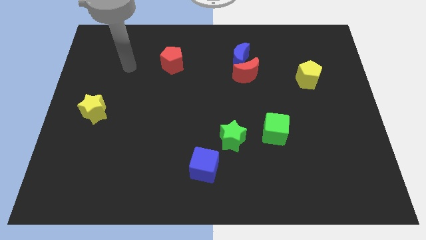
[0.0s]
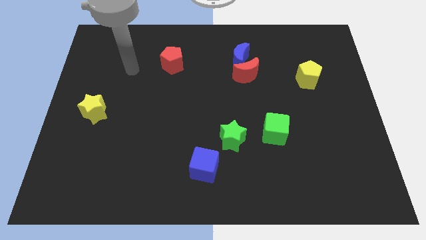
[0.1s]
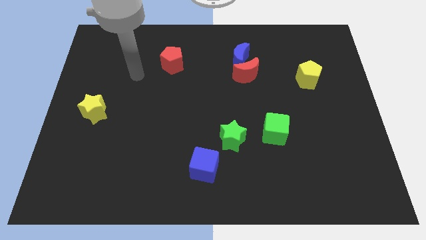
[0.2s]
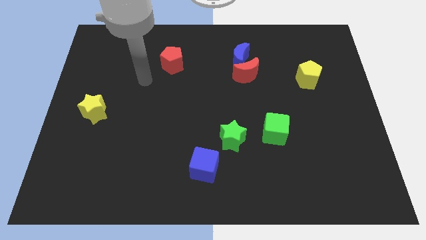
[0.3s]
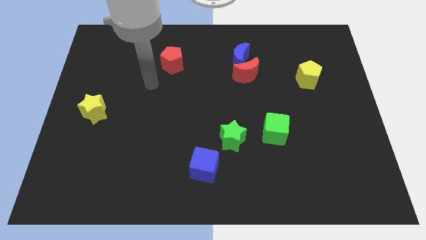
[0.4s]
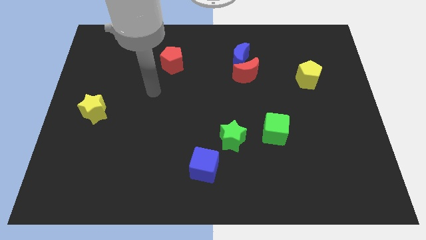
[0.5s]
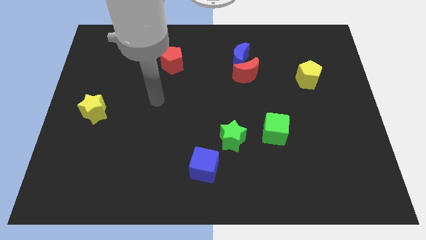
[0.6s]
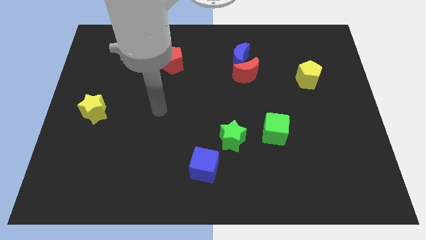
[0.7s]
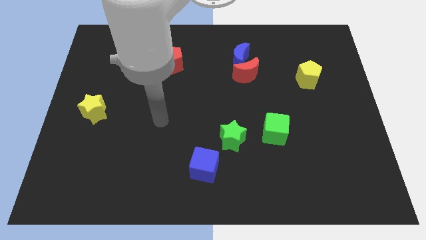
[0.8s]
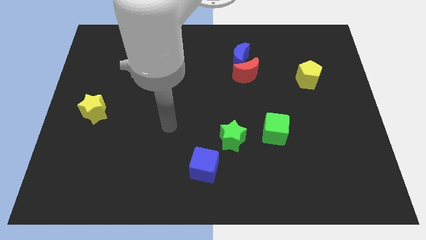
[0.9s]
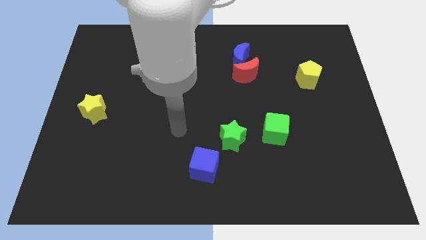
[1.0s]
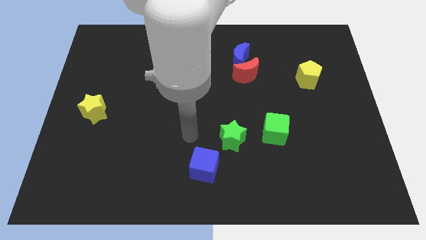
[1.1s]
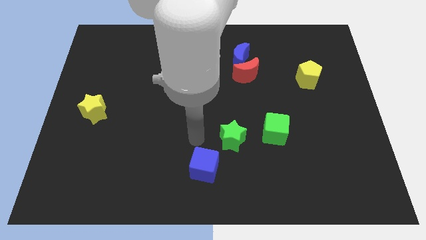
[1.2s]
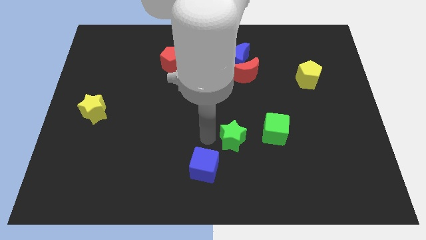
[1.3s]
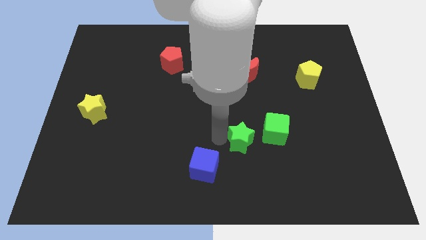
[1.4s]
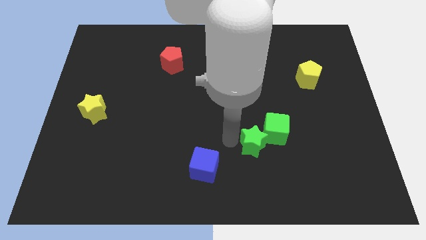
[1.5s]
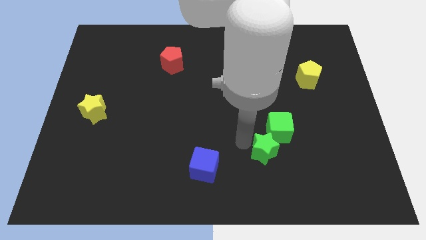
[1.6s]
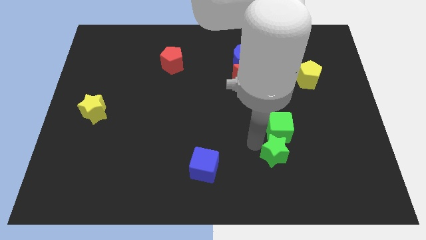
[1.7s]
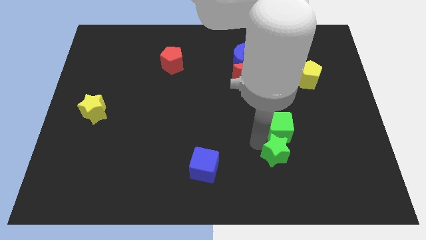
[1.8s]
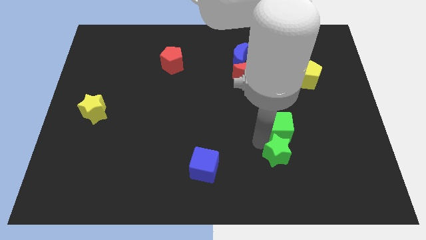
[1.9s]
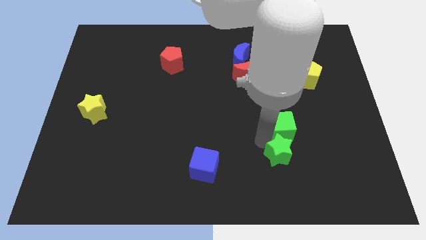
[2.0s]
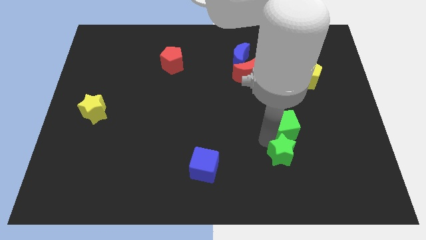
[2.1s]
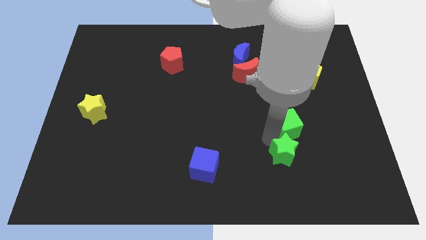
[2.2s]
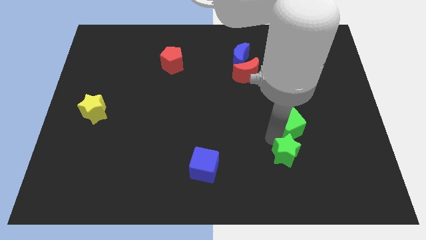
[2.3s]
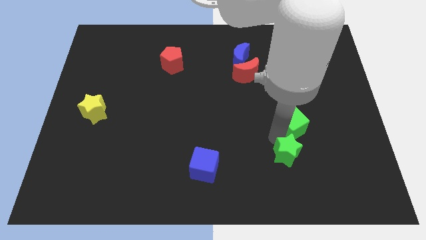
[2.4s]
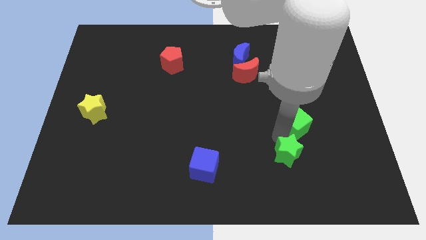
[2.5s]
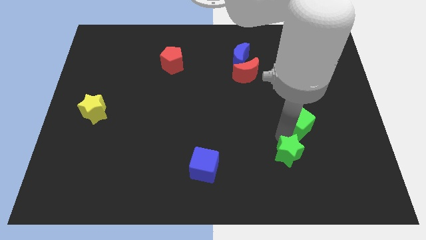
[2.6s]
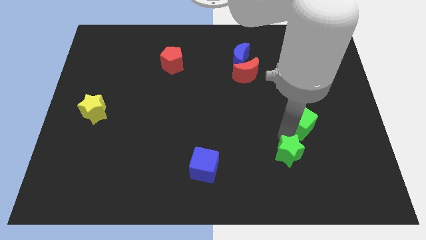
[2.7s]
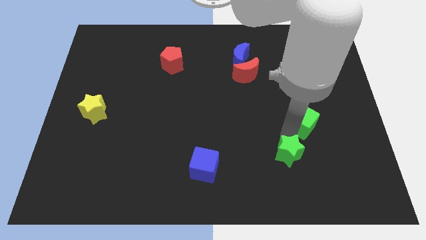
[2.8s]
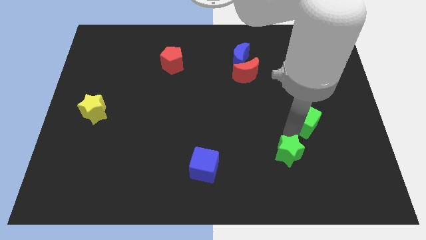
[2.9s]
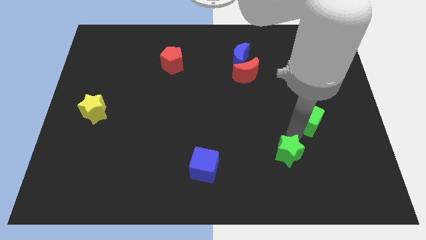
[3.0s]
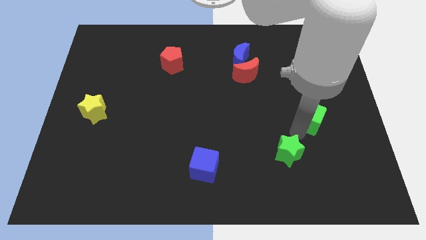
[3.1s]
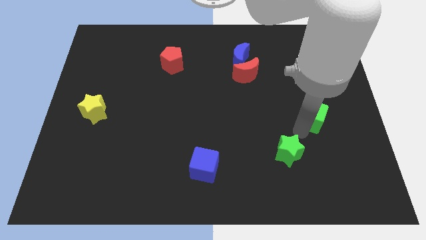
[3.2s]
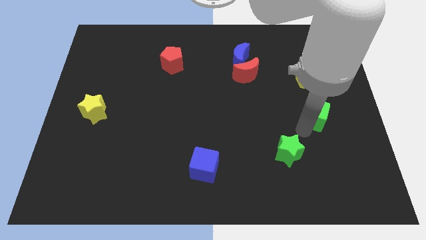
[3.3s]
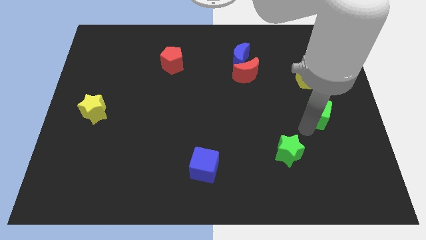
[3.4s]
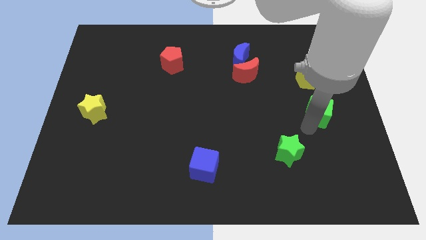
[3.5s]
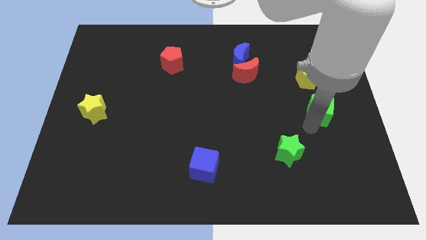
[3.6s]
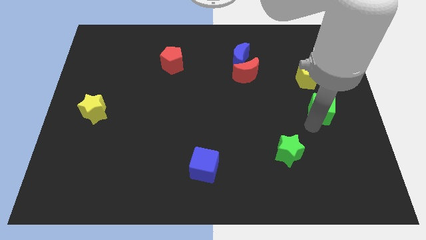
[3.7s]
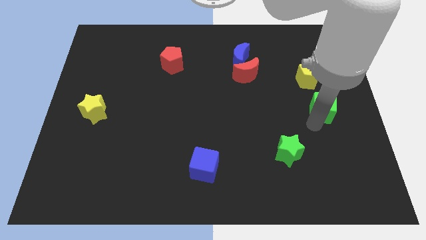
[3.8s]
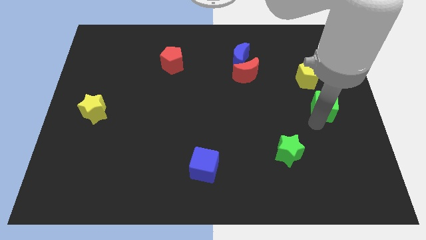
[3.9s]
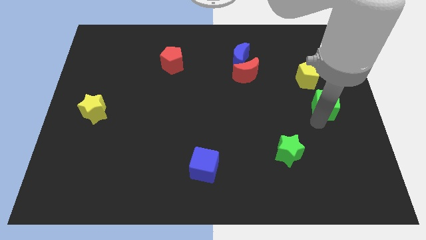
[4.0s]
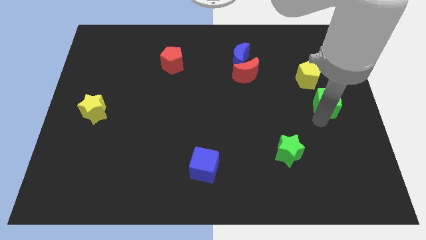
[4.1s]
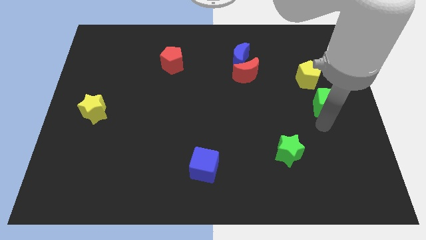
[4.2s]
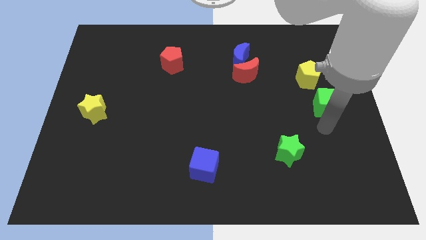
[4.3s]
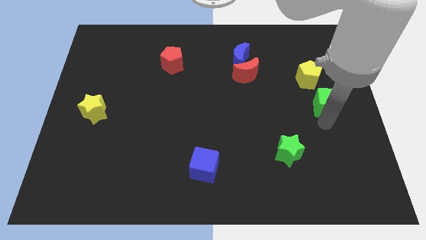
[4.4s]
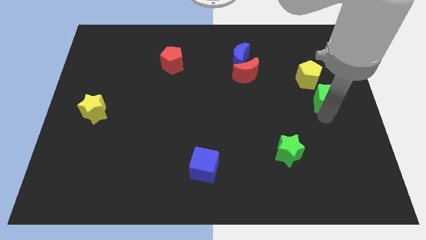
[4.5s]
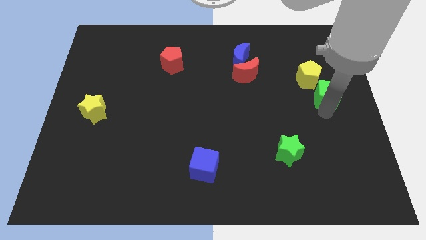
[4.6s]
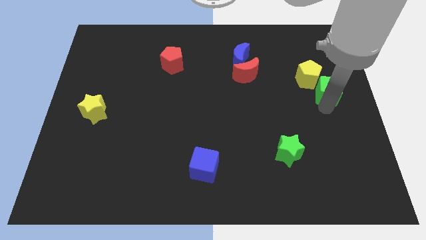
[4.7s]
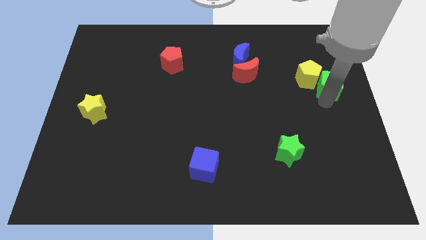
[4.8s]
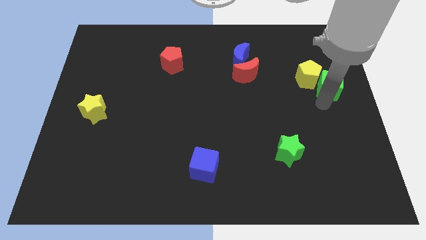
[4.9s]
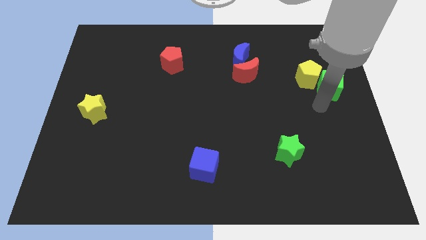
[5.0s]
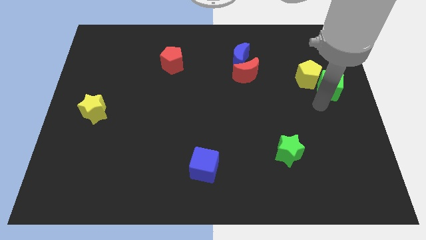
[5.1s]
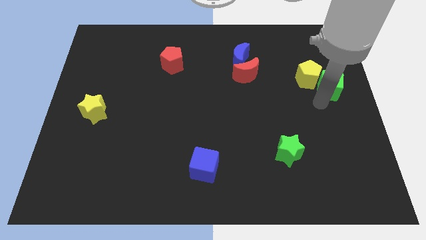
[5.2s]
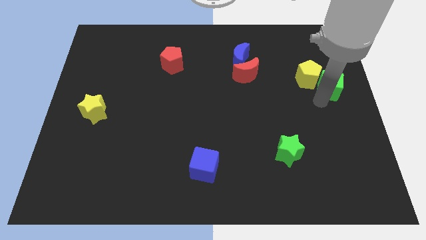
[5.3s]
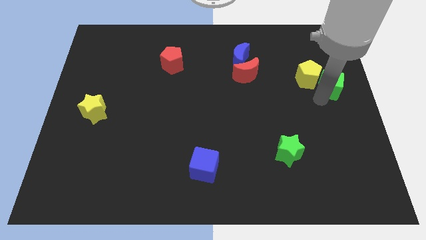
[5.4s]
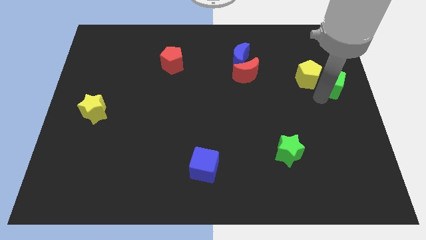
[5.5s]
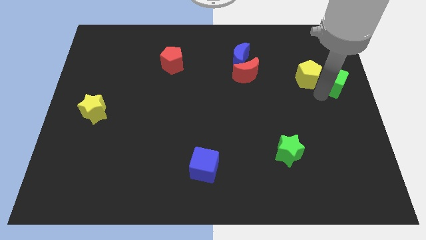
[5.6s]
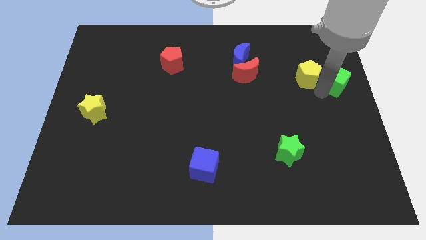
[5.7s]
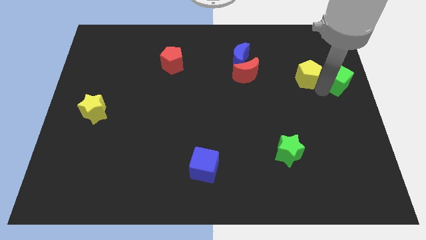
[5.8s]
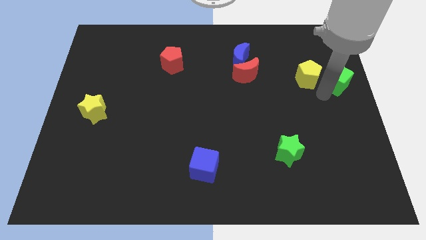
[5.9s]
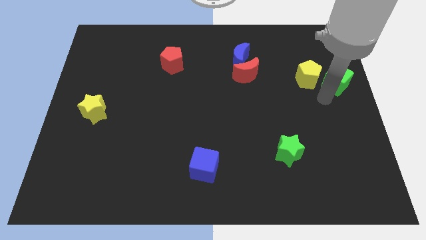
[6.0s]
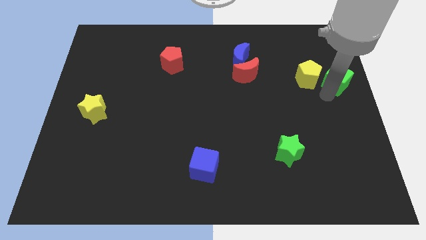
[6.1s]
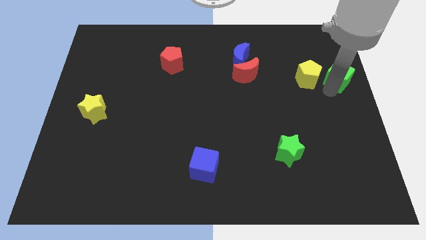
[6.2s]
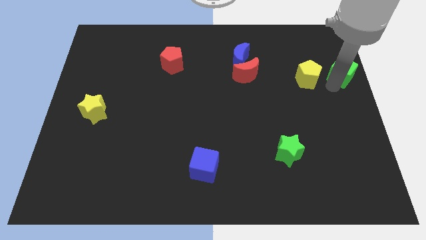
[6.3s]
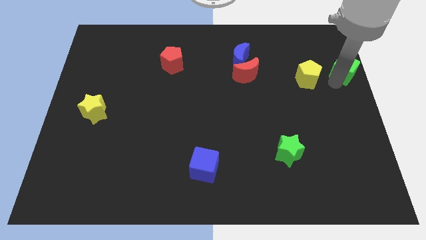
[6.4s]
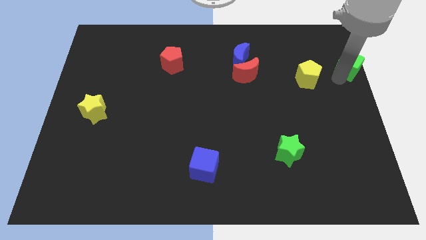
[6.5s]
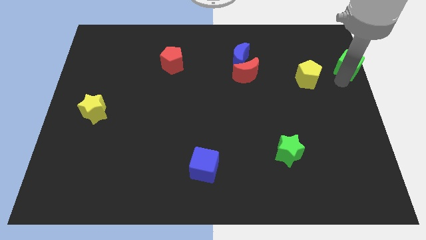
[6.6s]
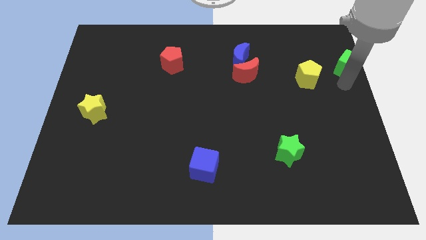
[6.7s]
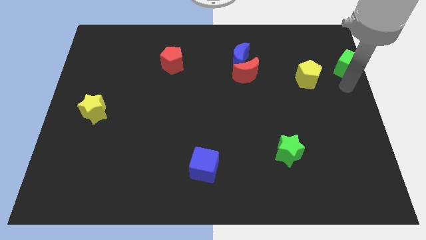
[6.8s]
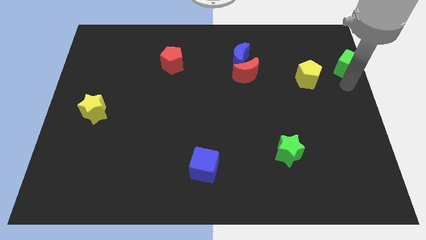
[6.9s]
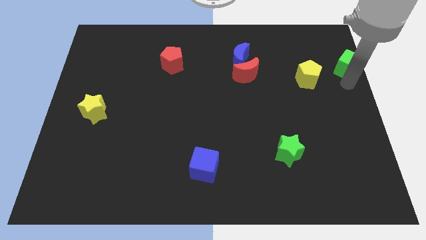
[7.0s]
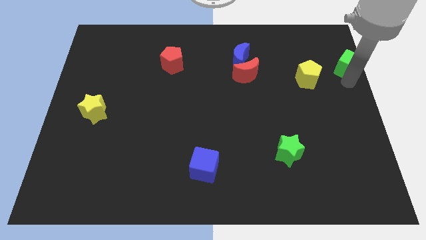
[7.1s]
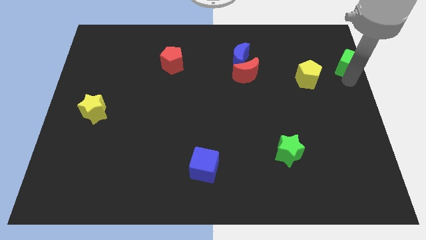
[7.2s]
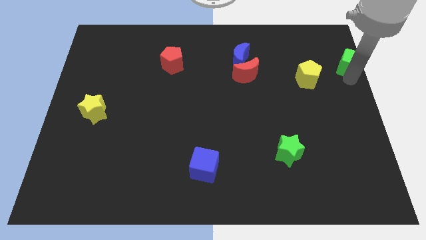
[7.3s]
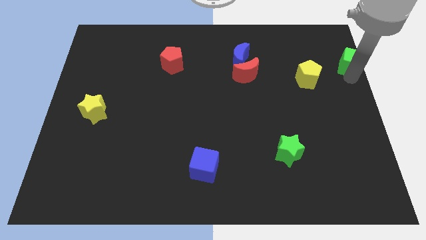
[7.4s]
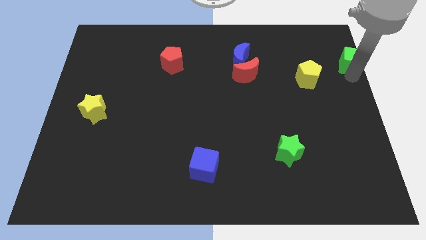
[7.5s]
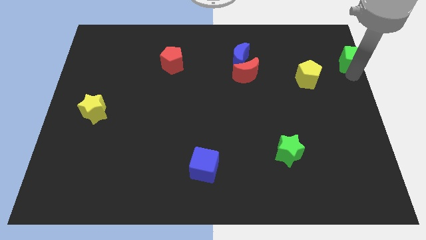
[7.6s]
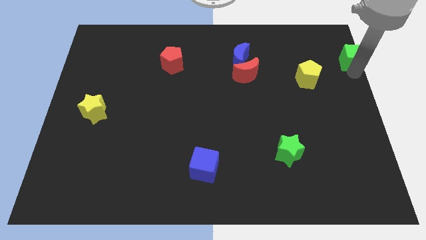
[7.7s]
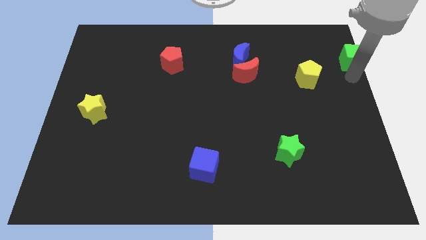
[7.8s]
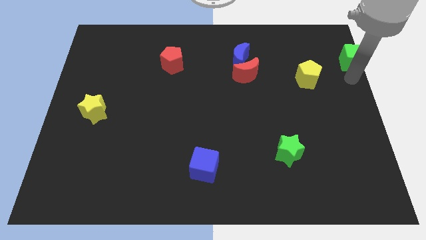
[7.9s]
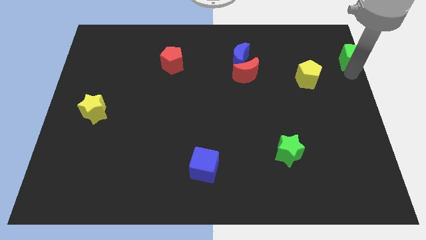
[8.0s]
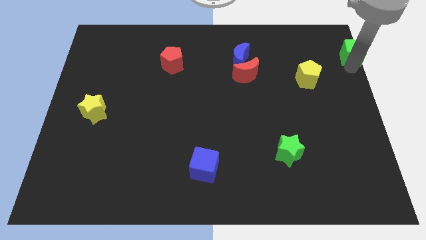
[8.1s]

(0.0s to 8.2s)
put the green cube to the upper right corner
